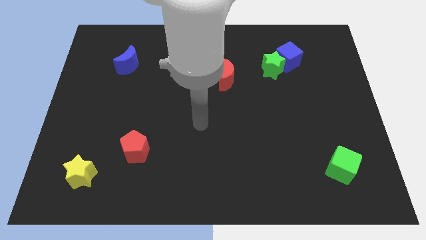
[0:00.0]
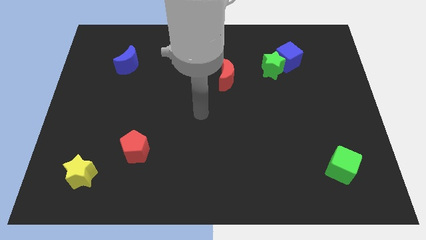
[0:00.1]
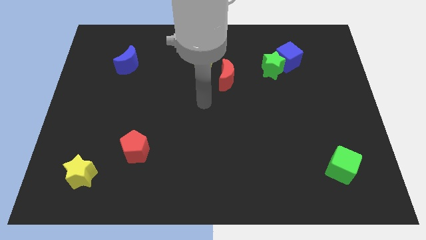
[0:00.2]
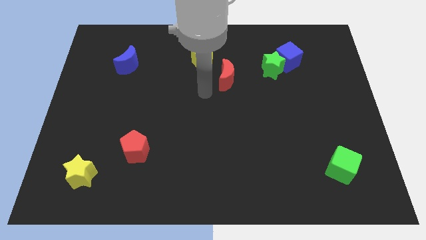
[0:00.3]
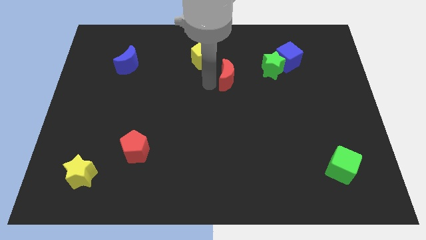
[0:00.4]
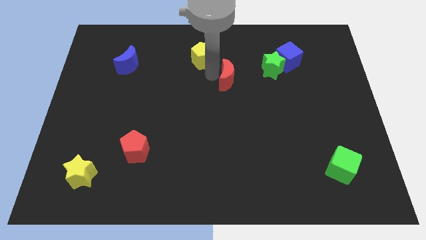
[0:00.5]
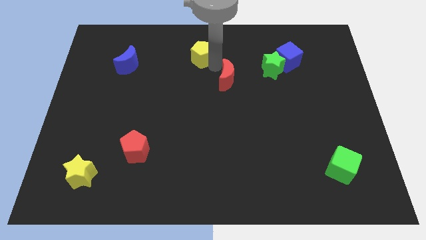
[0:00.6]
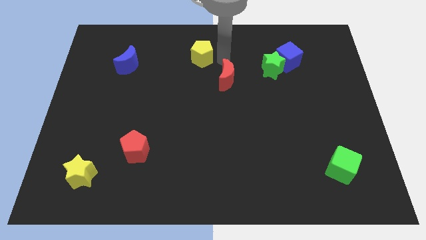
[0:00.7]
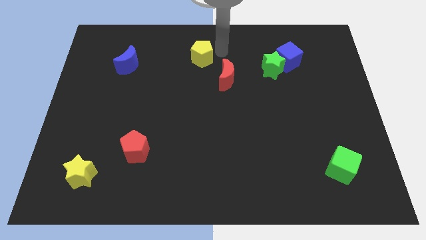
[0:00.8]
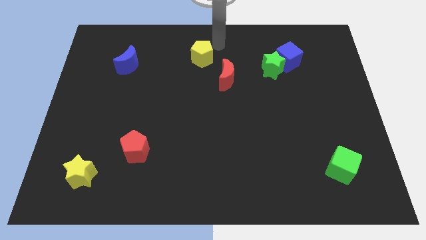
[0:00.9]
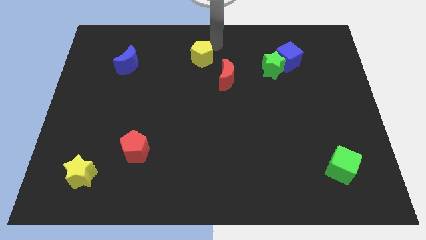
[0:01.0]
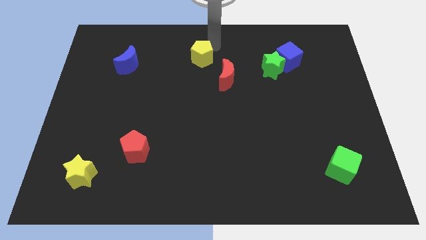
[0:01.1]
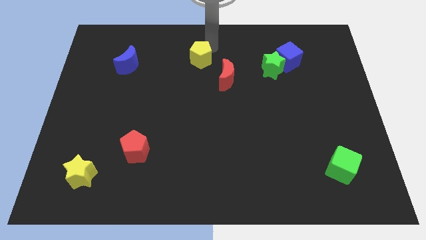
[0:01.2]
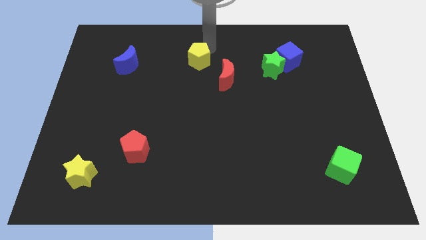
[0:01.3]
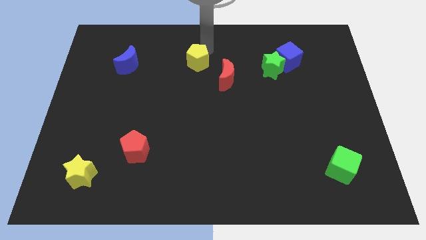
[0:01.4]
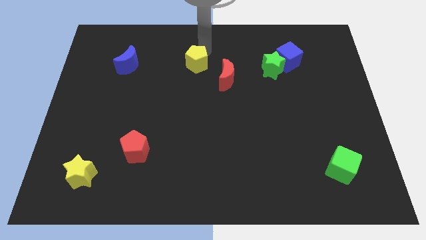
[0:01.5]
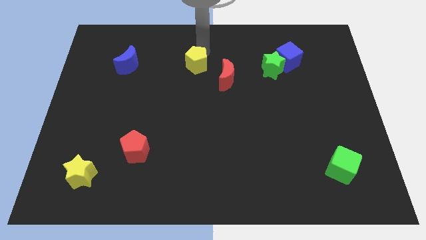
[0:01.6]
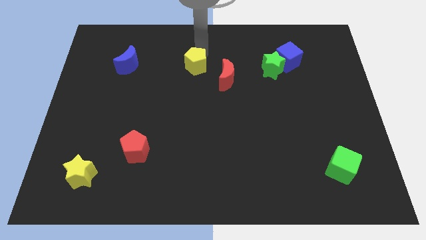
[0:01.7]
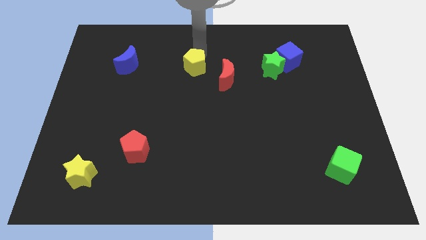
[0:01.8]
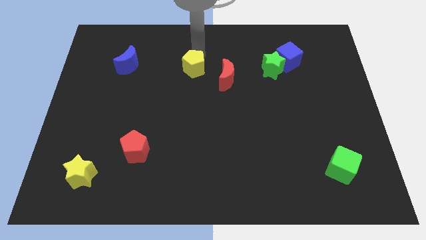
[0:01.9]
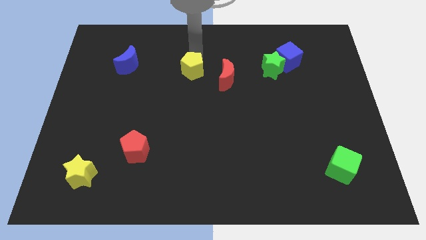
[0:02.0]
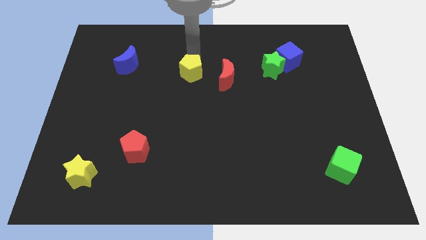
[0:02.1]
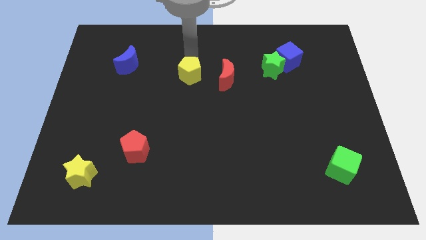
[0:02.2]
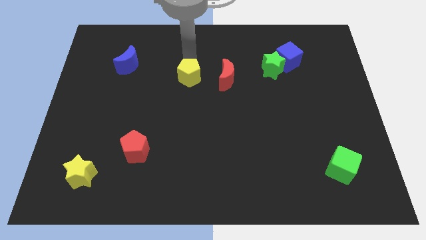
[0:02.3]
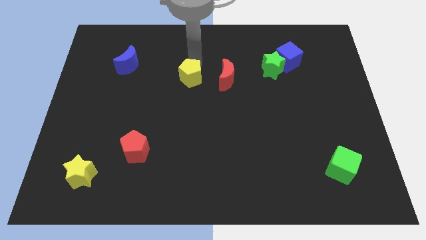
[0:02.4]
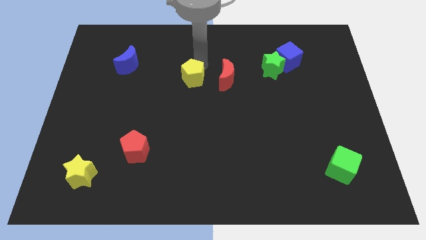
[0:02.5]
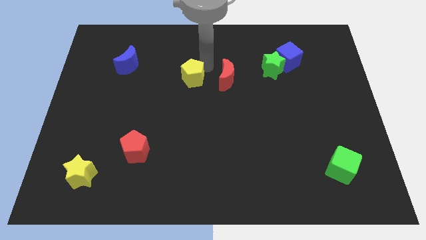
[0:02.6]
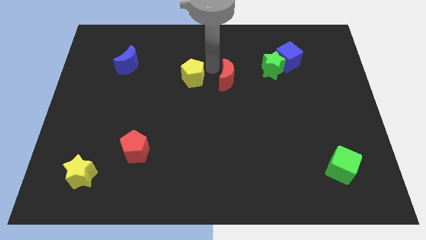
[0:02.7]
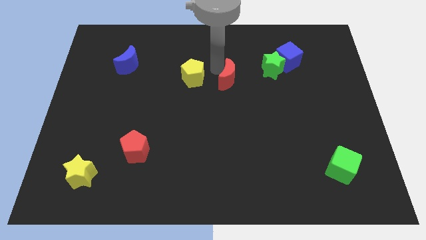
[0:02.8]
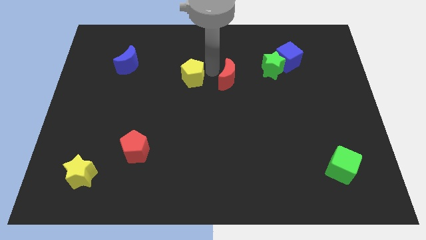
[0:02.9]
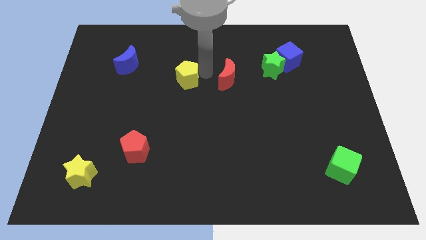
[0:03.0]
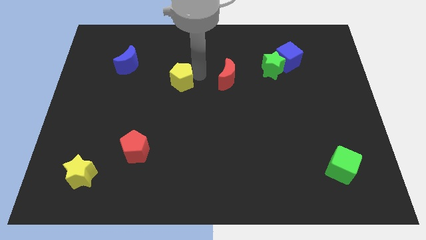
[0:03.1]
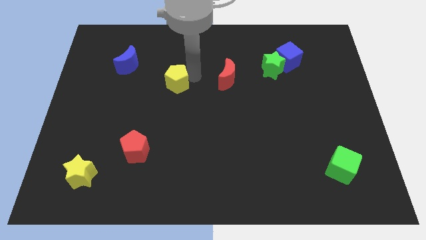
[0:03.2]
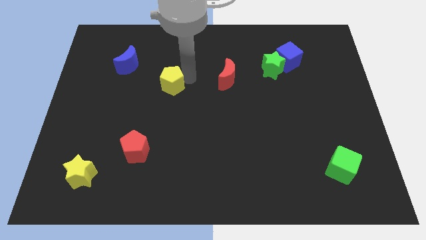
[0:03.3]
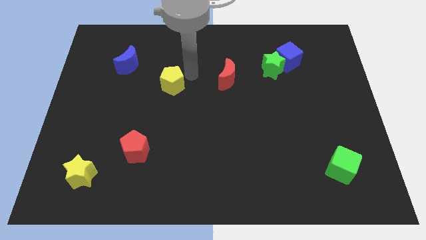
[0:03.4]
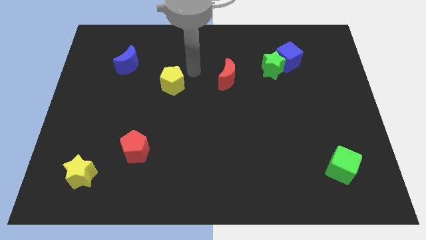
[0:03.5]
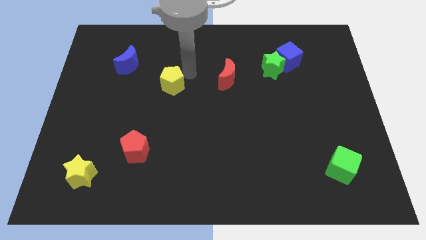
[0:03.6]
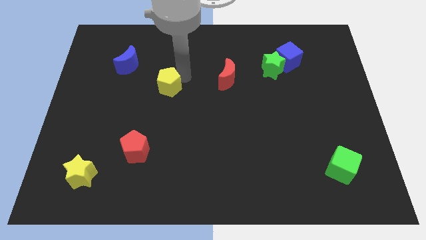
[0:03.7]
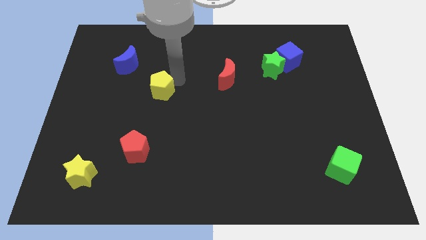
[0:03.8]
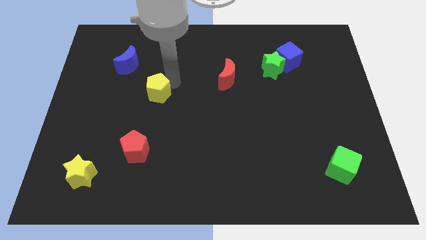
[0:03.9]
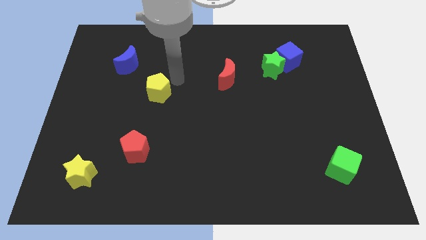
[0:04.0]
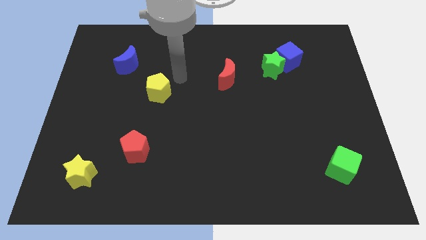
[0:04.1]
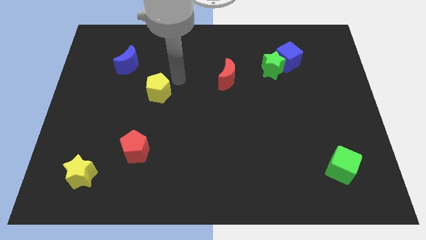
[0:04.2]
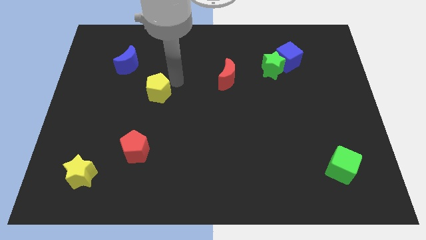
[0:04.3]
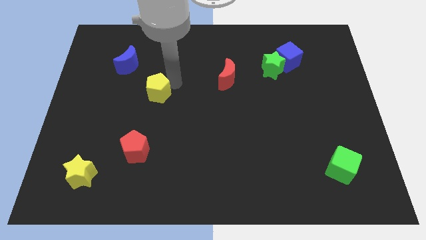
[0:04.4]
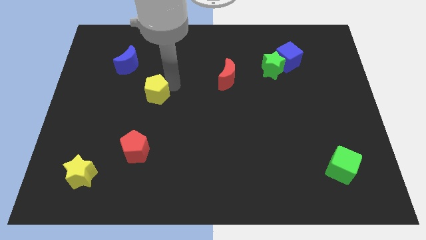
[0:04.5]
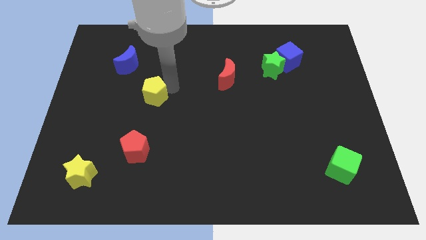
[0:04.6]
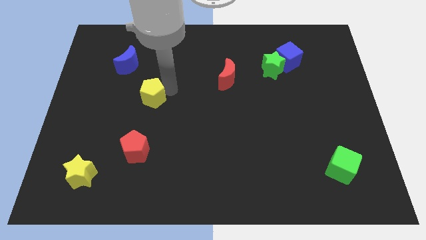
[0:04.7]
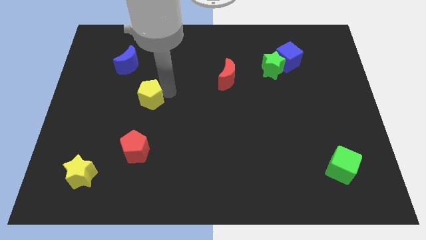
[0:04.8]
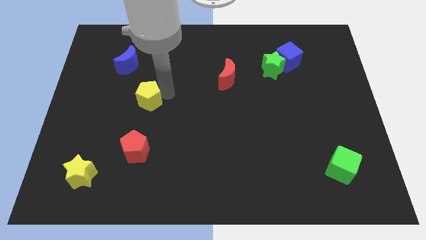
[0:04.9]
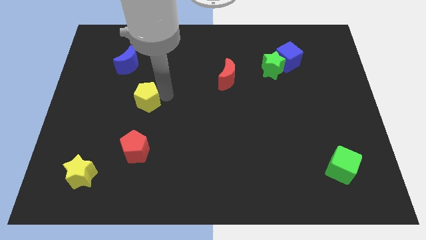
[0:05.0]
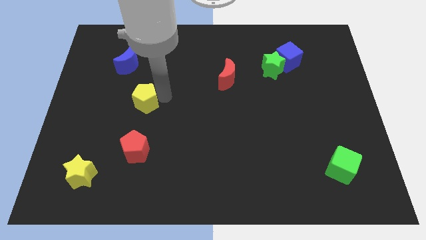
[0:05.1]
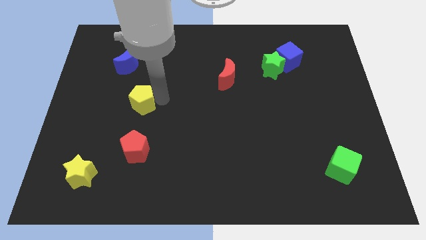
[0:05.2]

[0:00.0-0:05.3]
push the yellow pentagon down and then left

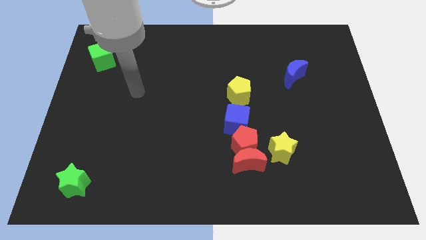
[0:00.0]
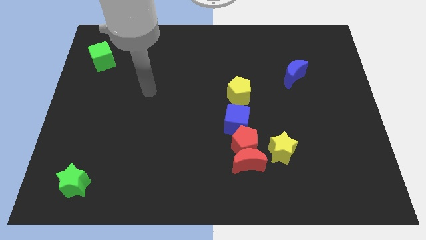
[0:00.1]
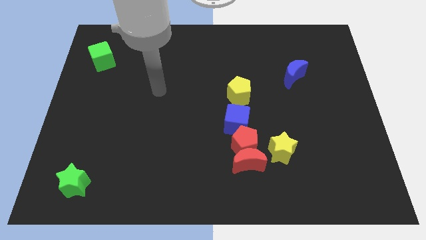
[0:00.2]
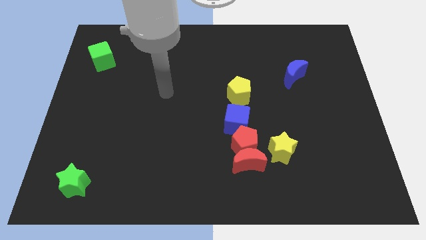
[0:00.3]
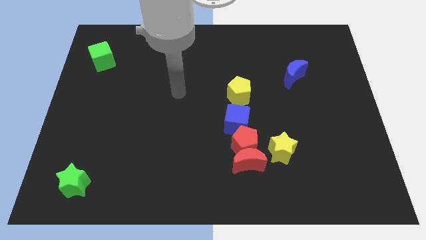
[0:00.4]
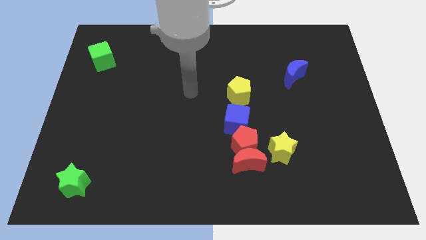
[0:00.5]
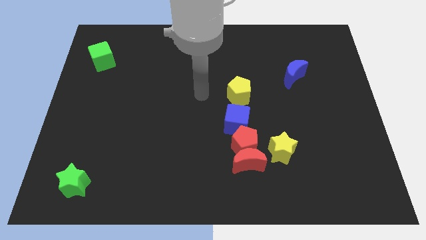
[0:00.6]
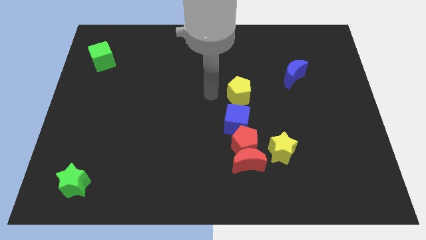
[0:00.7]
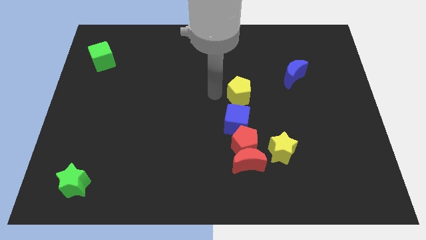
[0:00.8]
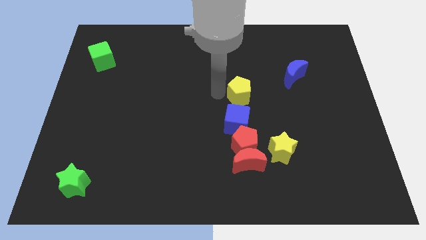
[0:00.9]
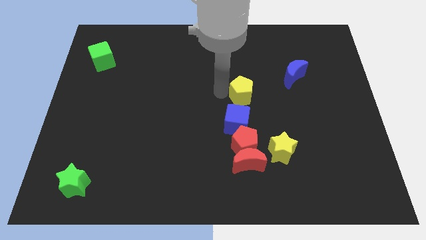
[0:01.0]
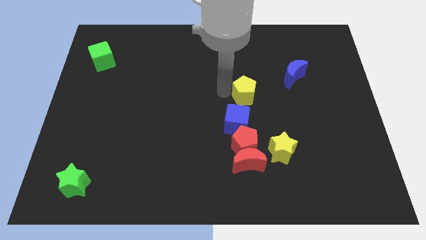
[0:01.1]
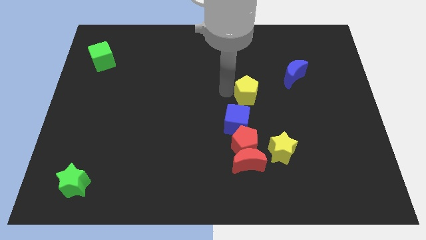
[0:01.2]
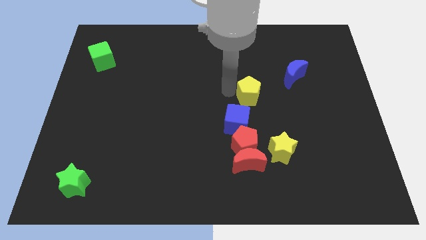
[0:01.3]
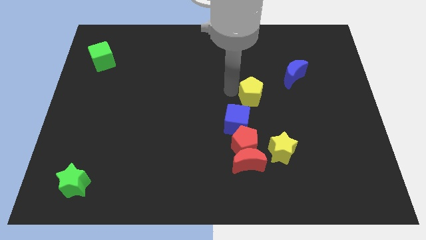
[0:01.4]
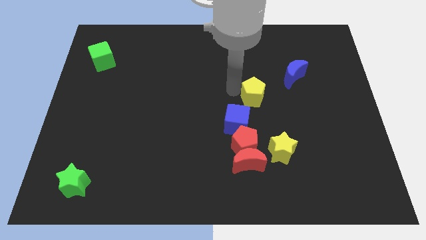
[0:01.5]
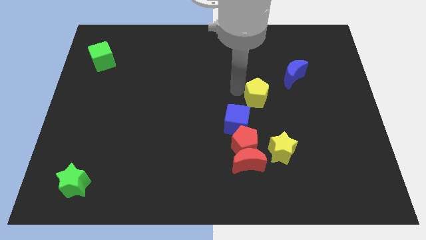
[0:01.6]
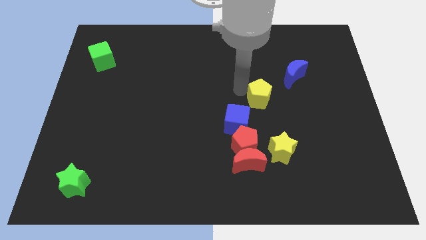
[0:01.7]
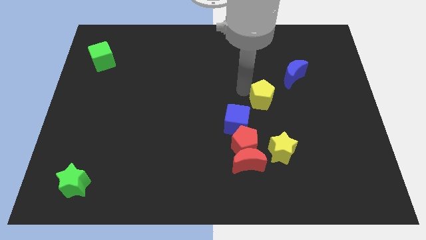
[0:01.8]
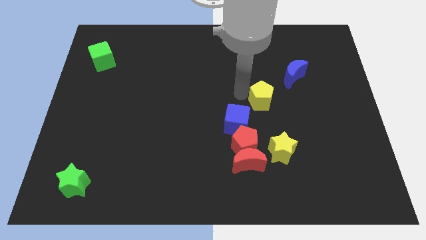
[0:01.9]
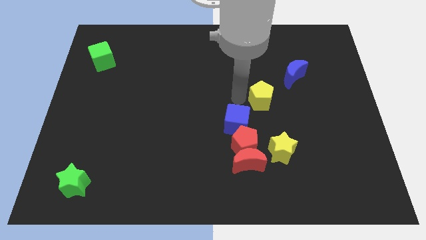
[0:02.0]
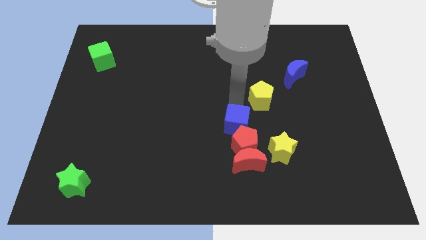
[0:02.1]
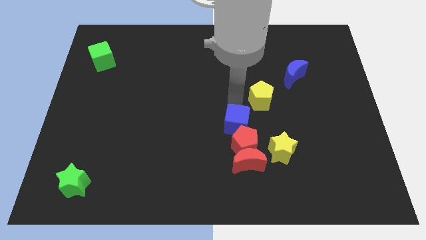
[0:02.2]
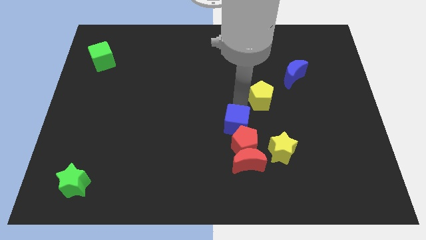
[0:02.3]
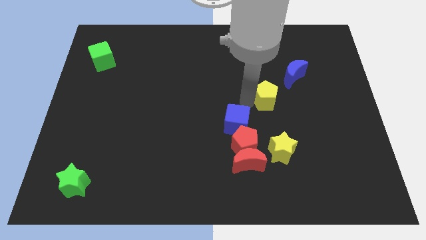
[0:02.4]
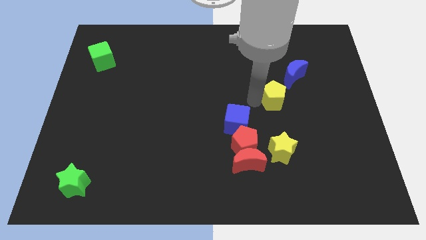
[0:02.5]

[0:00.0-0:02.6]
slightly push the yellow pentagon to the right

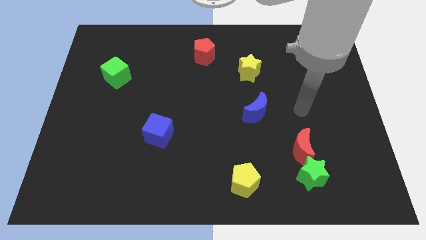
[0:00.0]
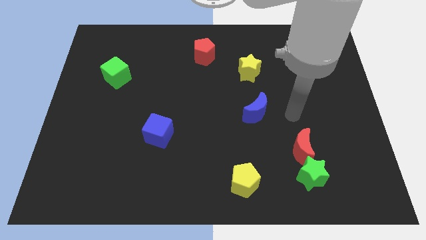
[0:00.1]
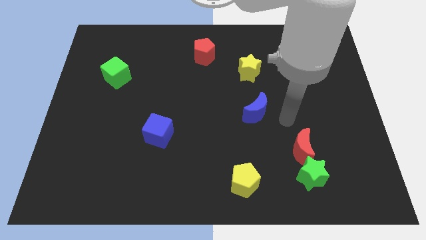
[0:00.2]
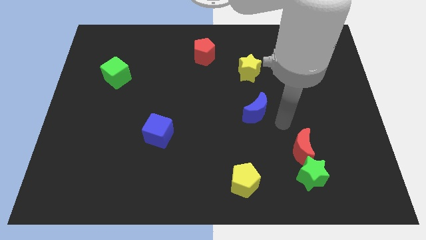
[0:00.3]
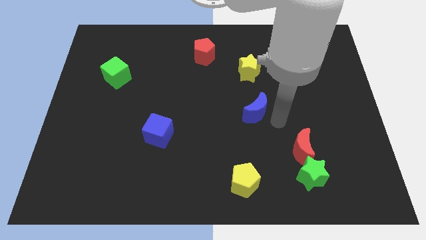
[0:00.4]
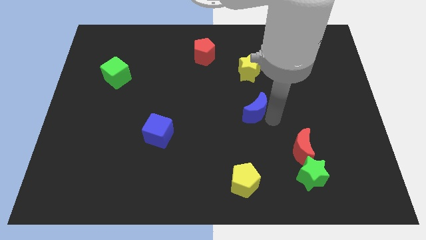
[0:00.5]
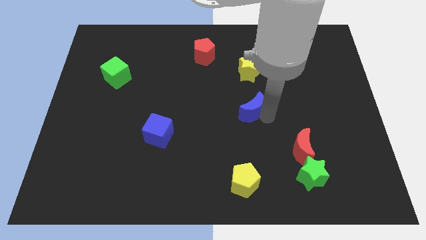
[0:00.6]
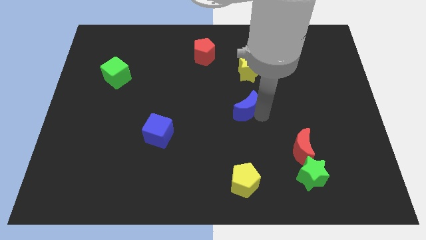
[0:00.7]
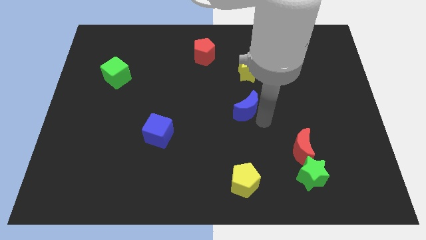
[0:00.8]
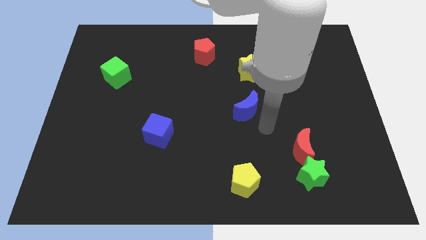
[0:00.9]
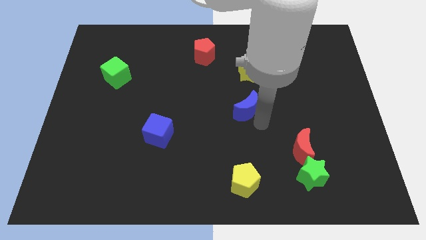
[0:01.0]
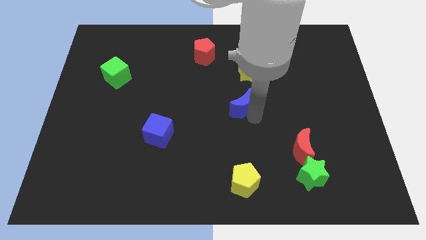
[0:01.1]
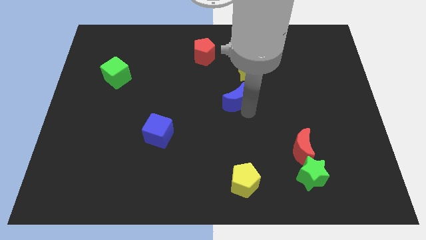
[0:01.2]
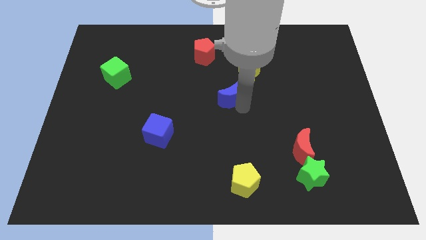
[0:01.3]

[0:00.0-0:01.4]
slightly slide the blue moon up and then left
